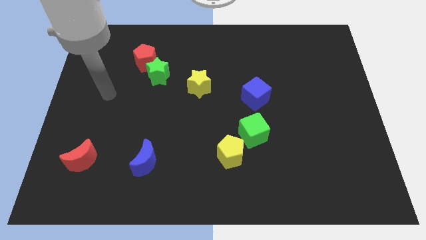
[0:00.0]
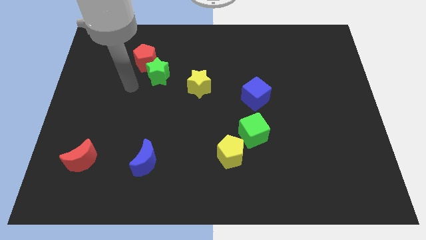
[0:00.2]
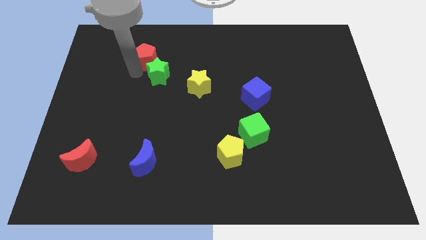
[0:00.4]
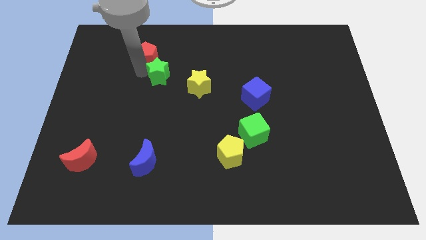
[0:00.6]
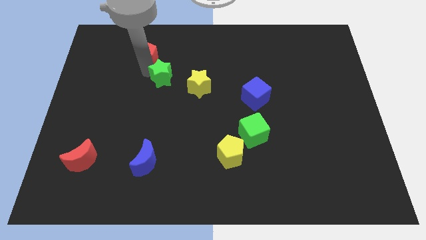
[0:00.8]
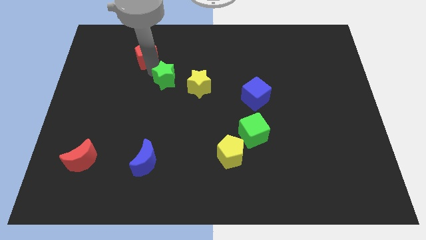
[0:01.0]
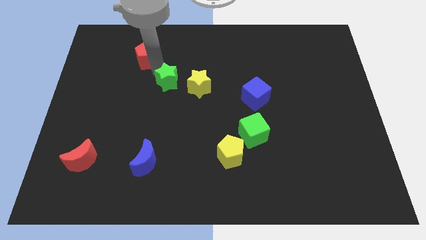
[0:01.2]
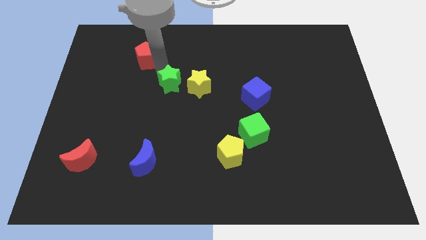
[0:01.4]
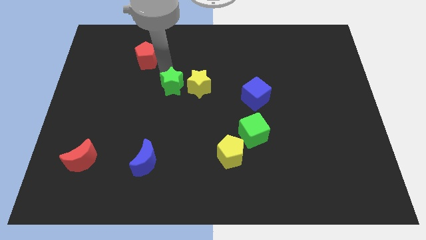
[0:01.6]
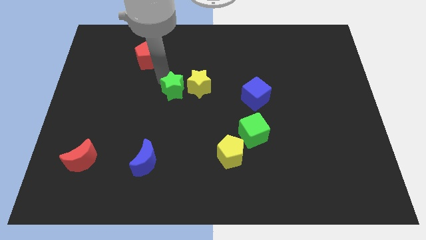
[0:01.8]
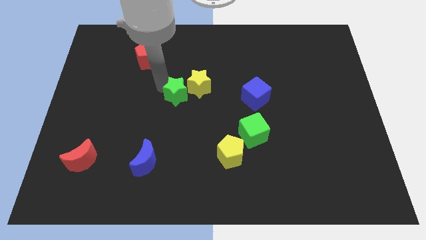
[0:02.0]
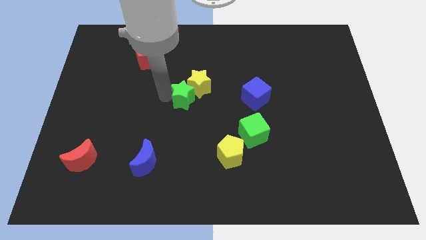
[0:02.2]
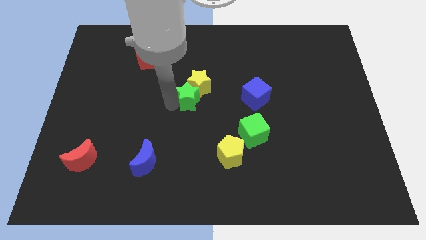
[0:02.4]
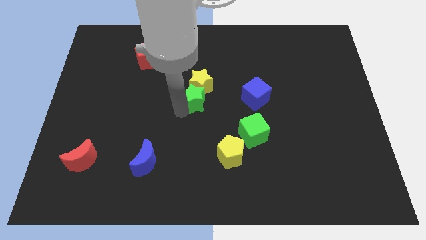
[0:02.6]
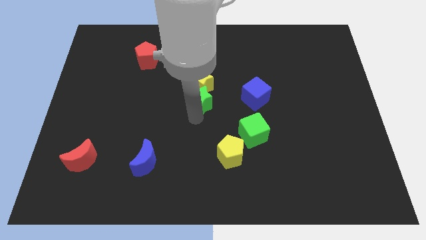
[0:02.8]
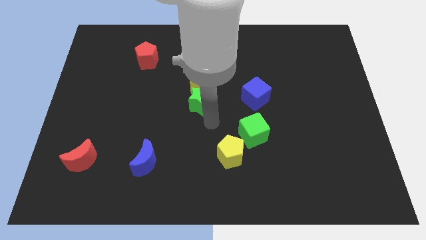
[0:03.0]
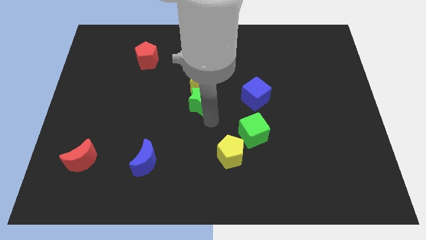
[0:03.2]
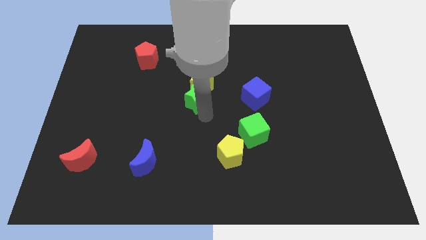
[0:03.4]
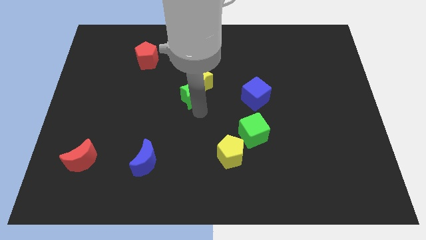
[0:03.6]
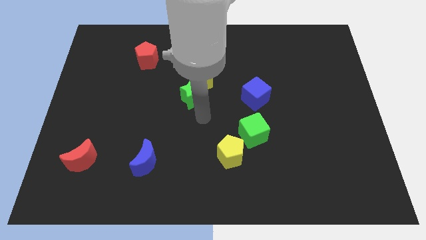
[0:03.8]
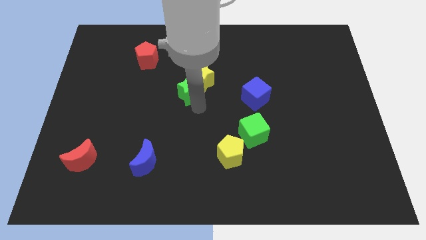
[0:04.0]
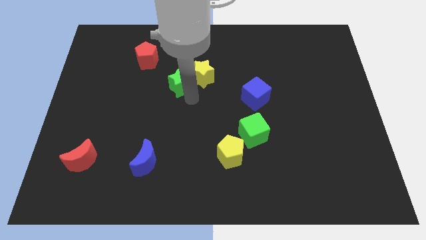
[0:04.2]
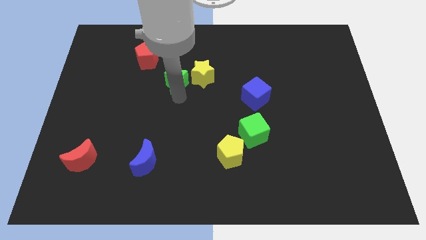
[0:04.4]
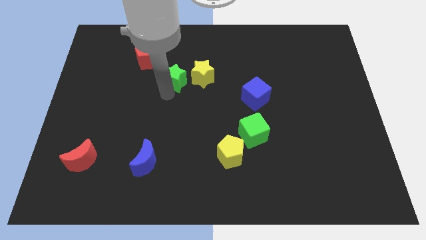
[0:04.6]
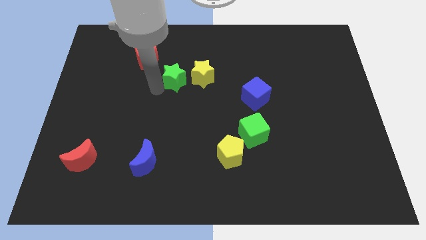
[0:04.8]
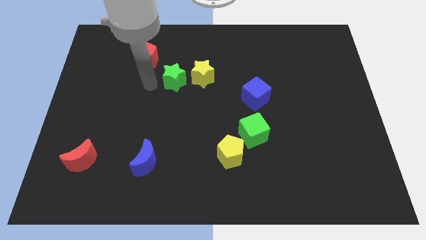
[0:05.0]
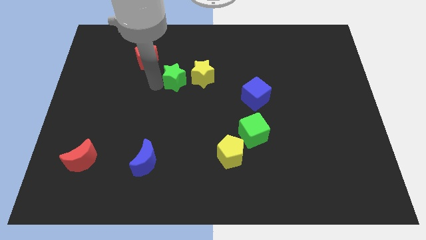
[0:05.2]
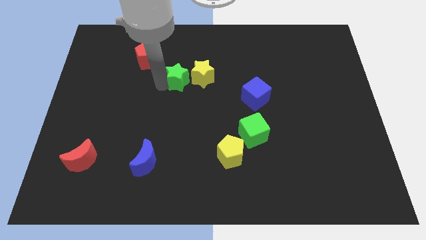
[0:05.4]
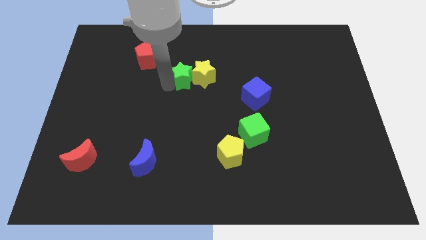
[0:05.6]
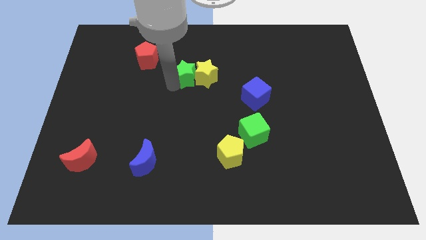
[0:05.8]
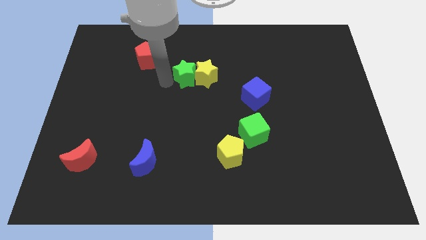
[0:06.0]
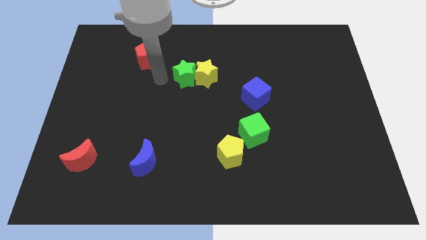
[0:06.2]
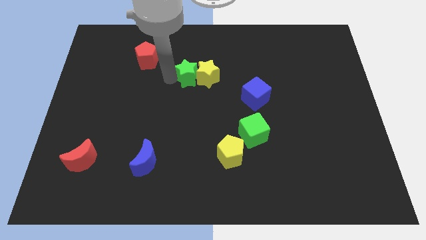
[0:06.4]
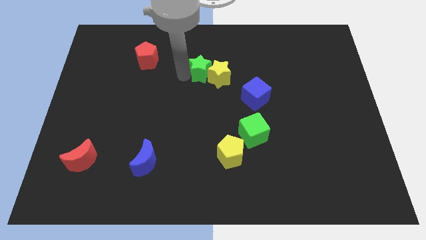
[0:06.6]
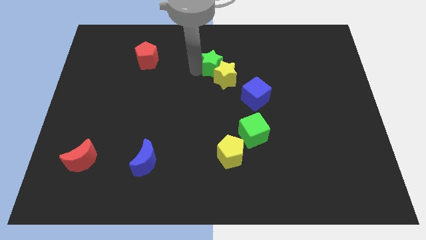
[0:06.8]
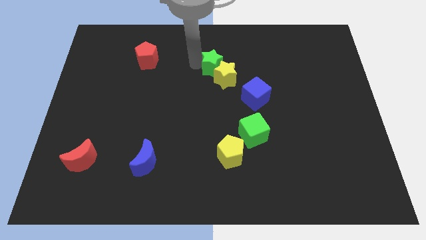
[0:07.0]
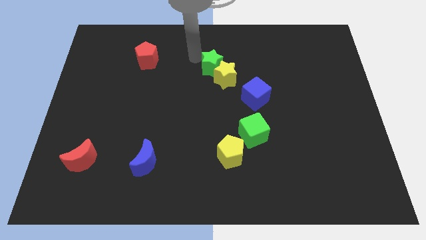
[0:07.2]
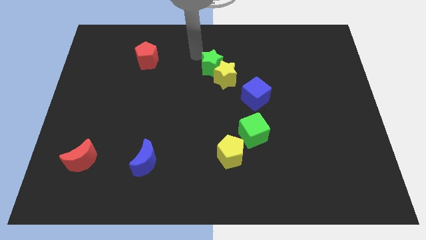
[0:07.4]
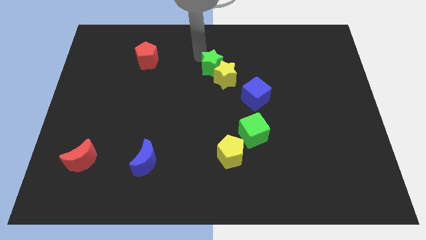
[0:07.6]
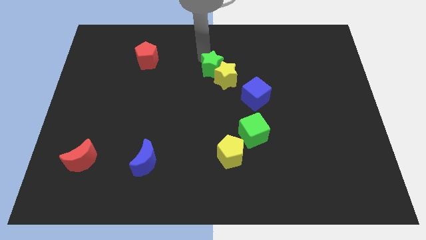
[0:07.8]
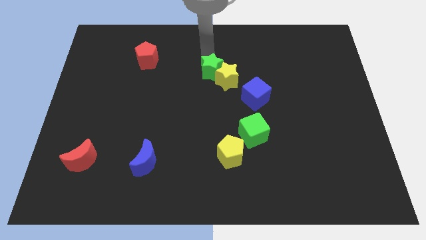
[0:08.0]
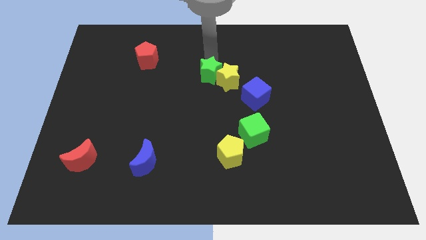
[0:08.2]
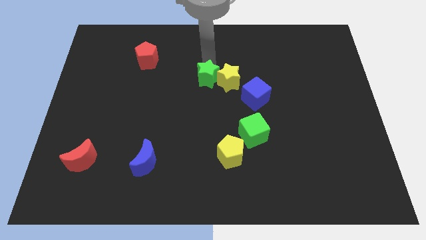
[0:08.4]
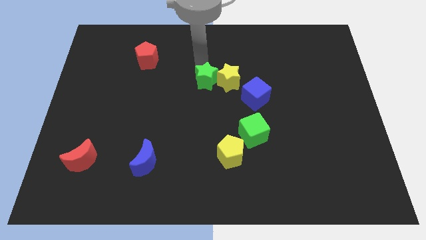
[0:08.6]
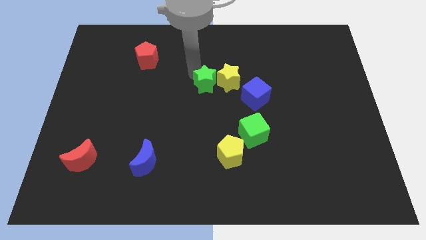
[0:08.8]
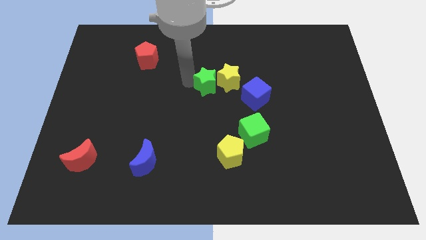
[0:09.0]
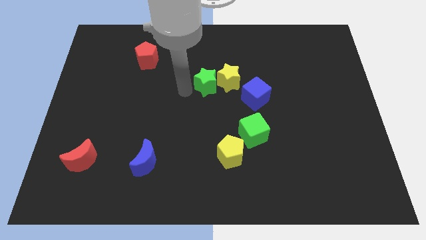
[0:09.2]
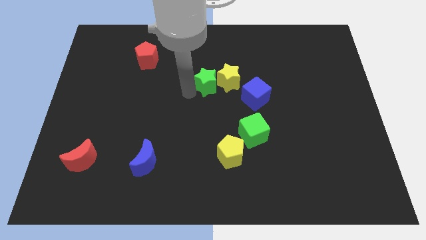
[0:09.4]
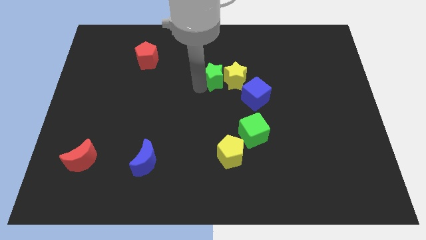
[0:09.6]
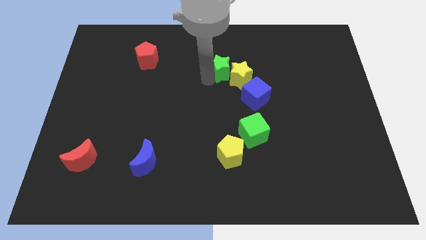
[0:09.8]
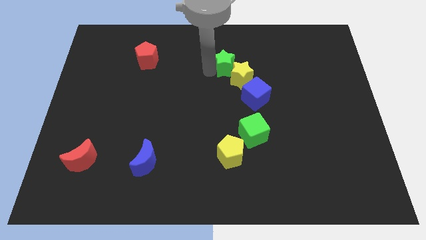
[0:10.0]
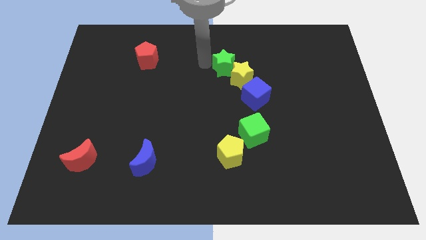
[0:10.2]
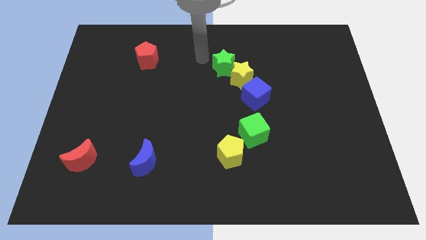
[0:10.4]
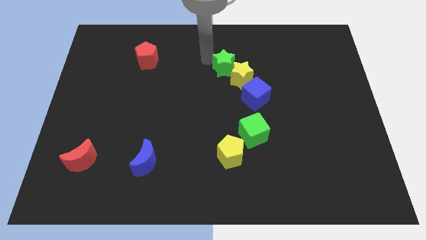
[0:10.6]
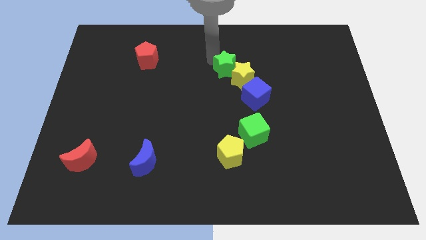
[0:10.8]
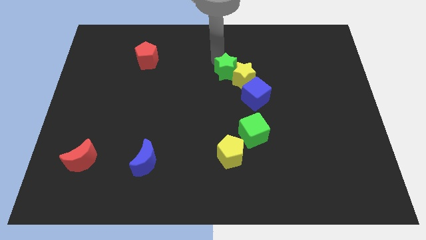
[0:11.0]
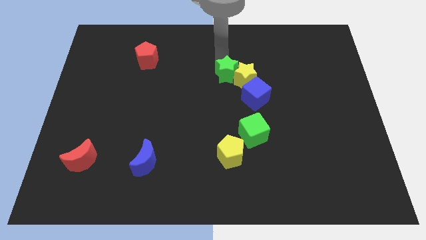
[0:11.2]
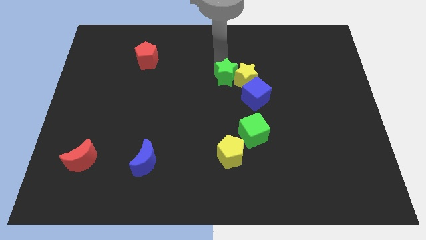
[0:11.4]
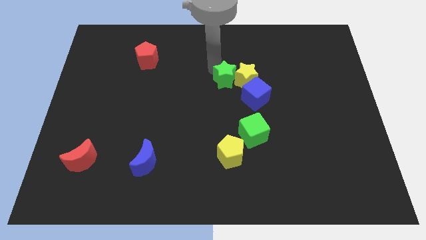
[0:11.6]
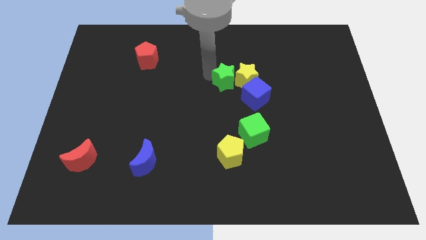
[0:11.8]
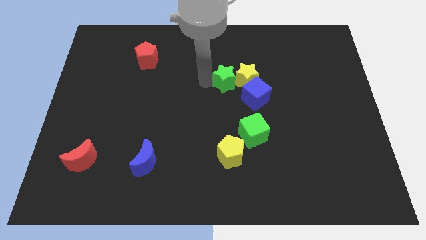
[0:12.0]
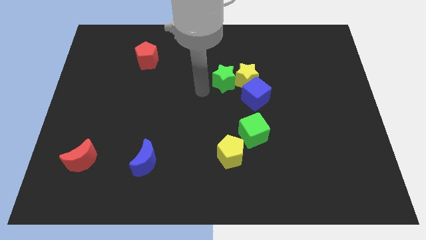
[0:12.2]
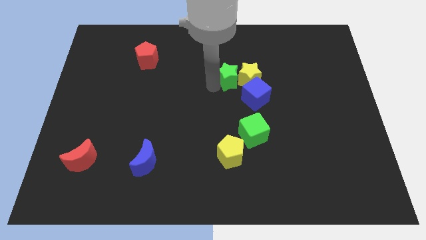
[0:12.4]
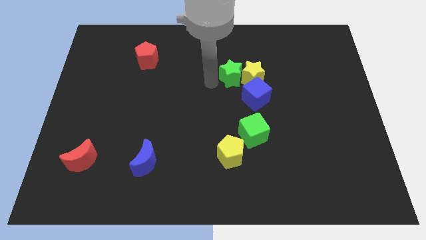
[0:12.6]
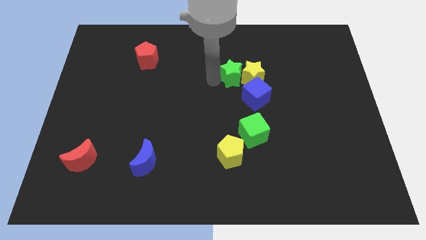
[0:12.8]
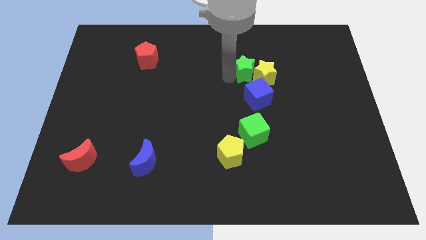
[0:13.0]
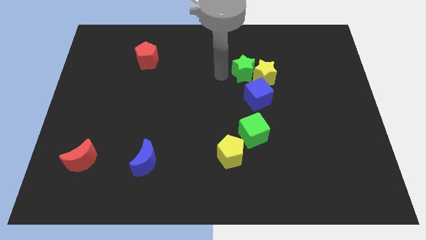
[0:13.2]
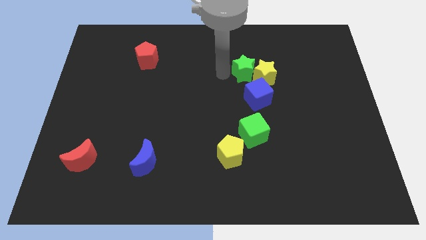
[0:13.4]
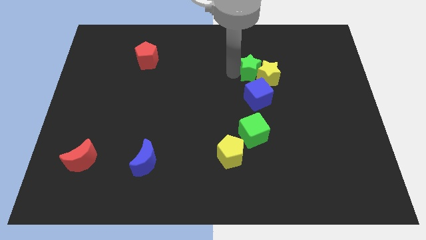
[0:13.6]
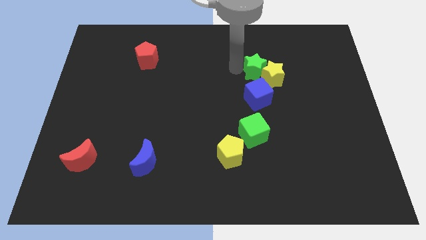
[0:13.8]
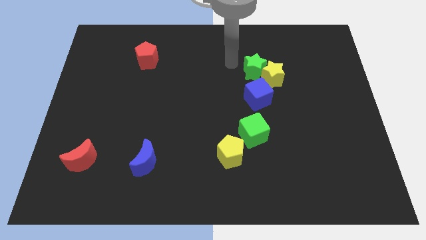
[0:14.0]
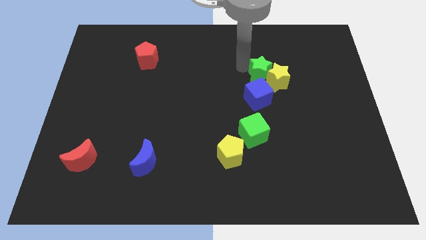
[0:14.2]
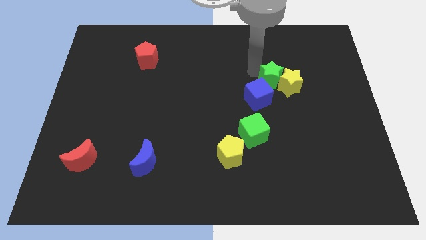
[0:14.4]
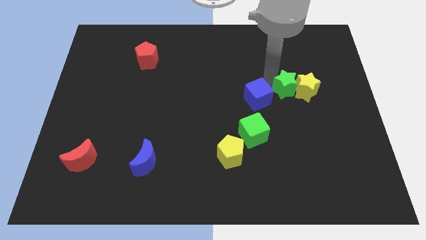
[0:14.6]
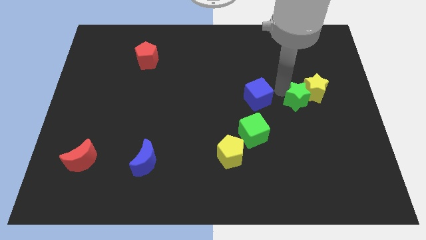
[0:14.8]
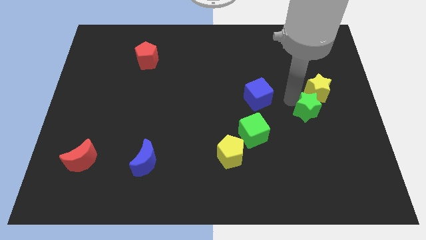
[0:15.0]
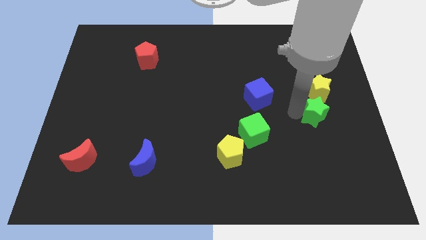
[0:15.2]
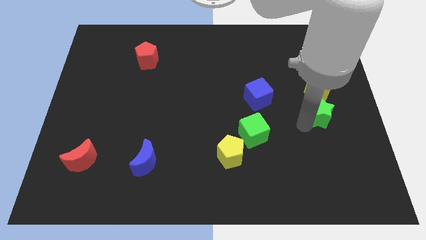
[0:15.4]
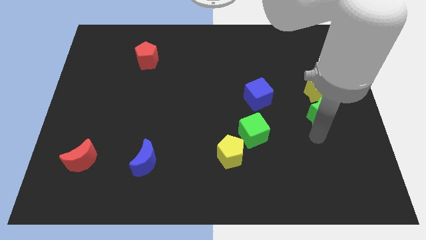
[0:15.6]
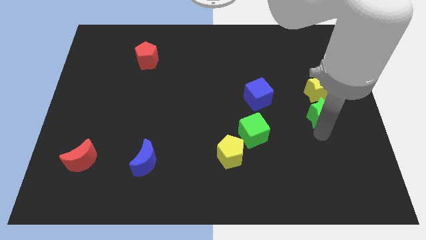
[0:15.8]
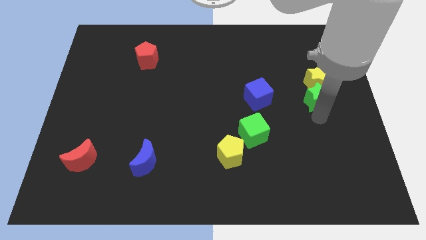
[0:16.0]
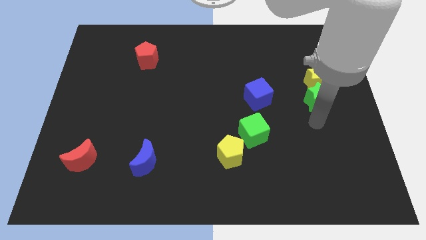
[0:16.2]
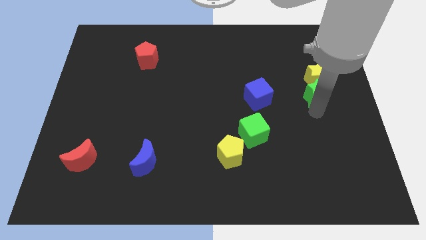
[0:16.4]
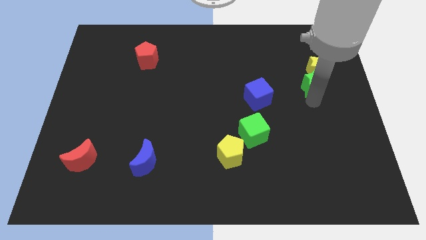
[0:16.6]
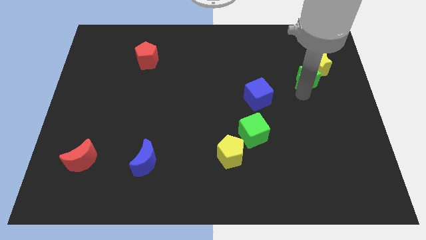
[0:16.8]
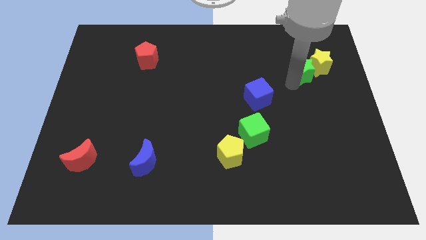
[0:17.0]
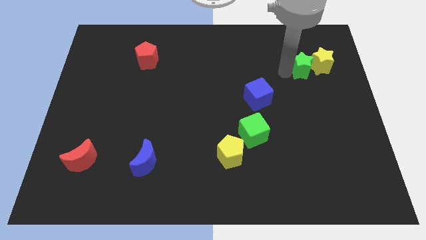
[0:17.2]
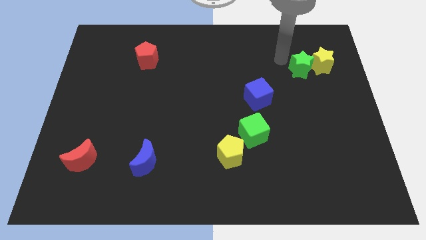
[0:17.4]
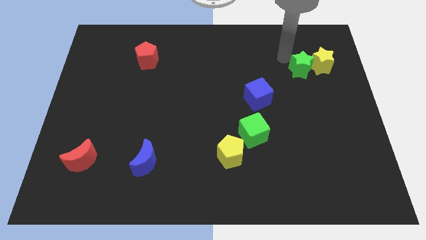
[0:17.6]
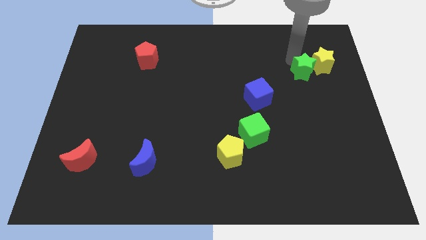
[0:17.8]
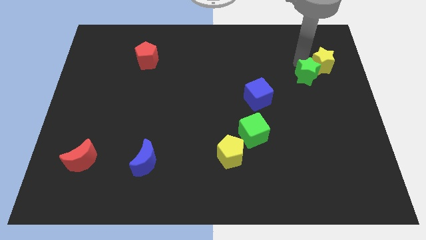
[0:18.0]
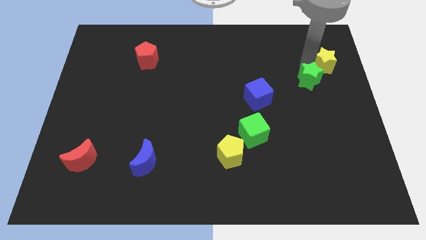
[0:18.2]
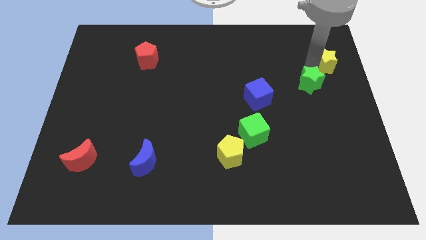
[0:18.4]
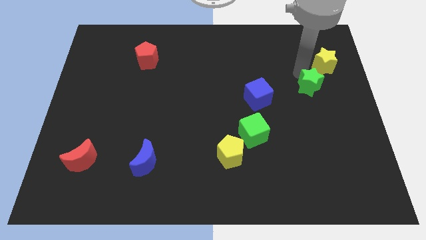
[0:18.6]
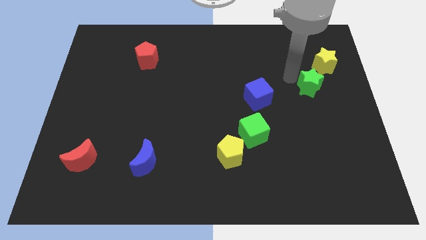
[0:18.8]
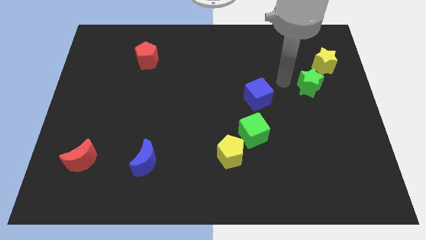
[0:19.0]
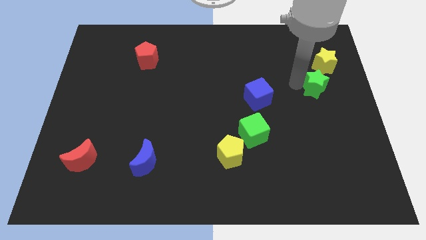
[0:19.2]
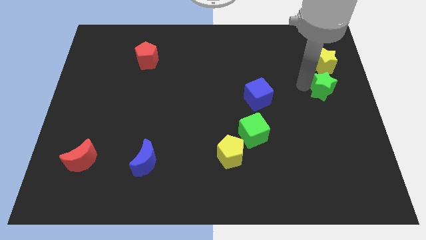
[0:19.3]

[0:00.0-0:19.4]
slide the green star to the right side of the board
